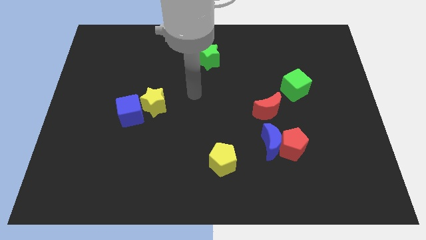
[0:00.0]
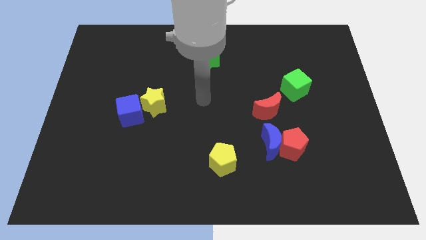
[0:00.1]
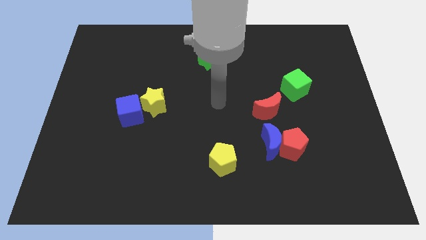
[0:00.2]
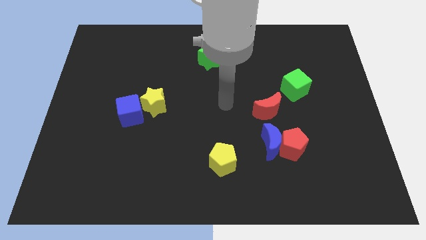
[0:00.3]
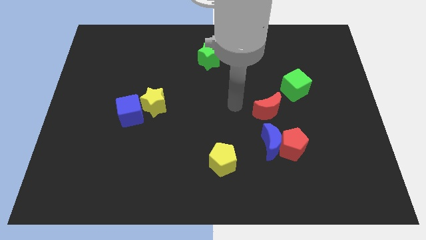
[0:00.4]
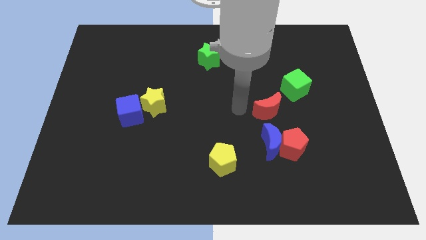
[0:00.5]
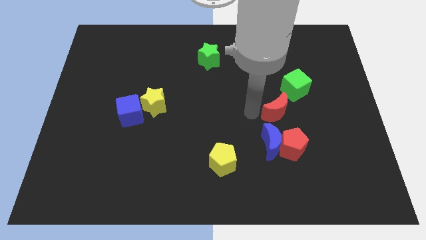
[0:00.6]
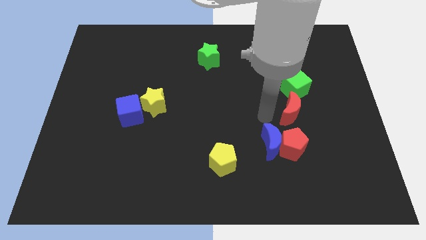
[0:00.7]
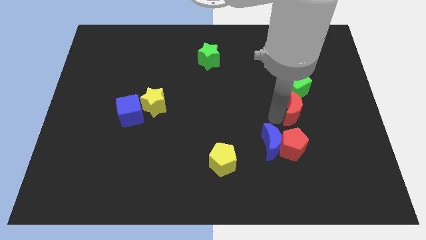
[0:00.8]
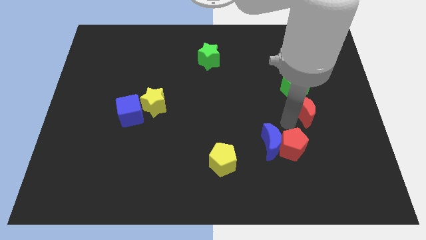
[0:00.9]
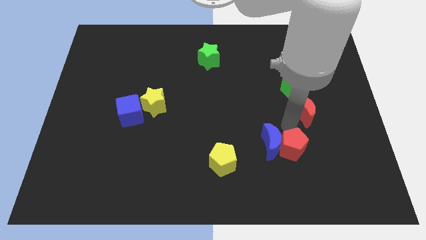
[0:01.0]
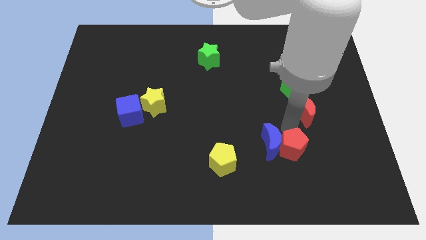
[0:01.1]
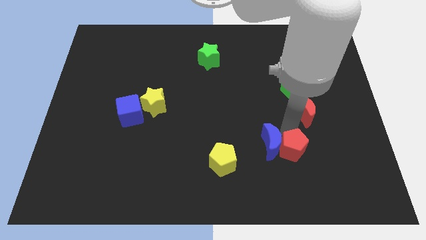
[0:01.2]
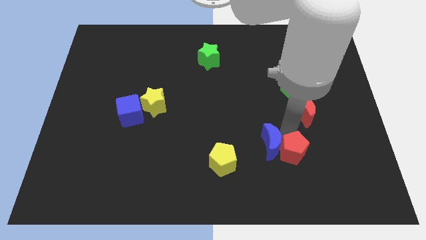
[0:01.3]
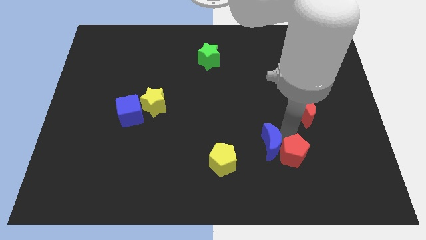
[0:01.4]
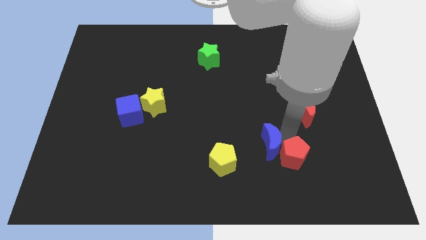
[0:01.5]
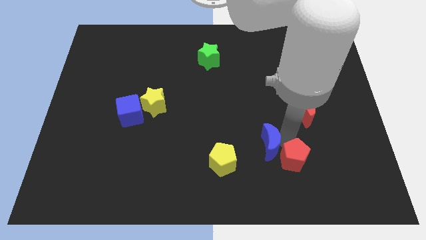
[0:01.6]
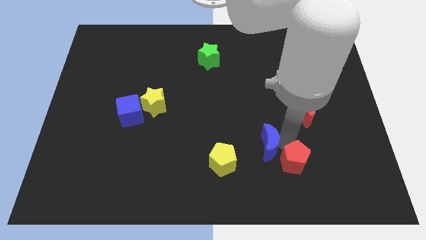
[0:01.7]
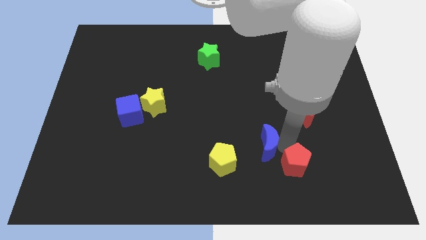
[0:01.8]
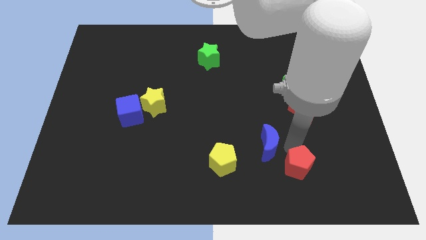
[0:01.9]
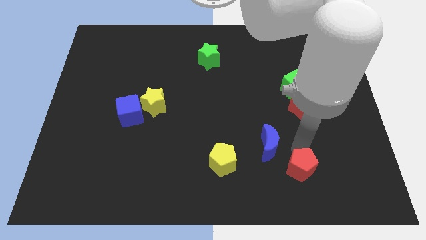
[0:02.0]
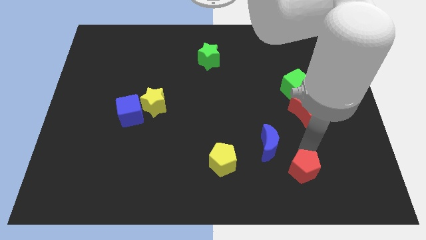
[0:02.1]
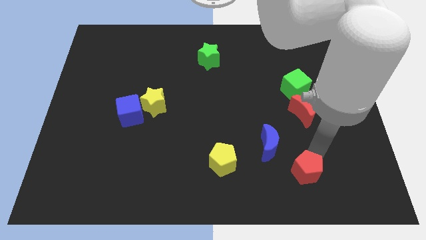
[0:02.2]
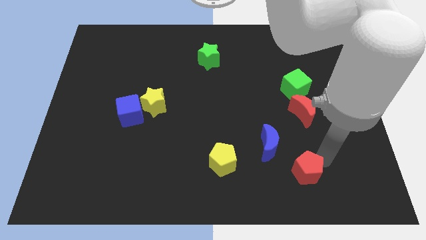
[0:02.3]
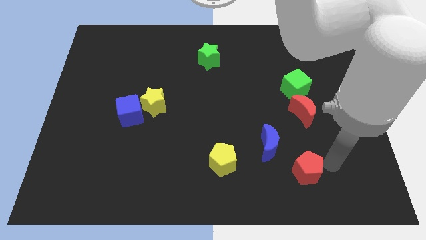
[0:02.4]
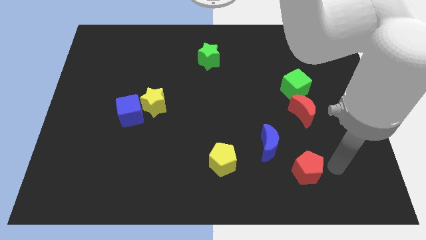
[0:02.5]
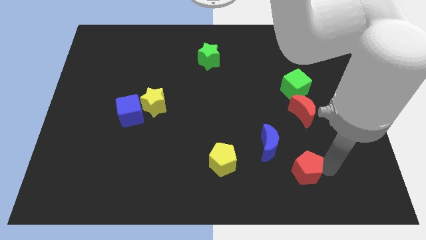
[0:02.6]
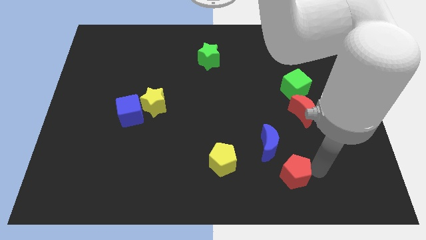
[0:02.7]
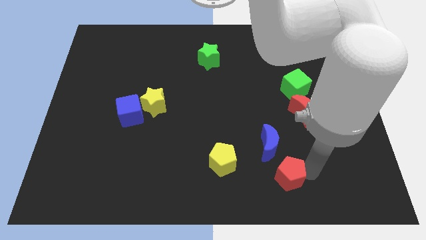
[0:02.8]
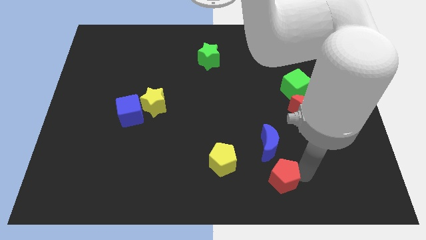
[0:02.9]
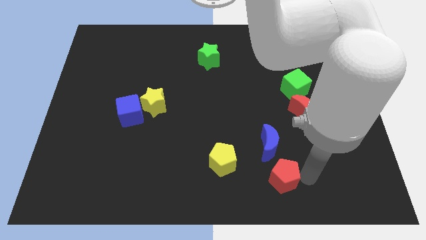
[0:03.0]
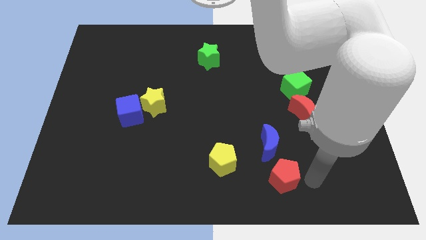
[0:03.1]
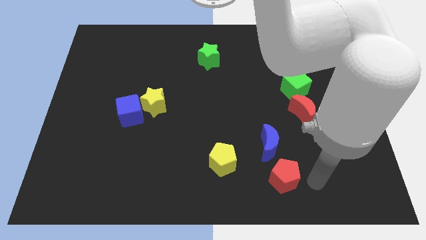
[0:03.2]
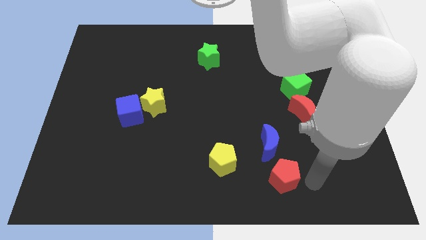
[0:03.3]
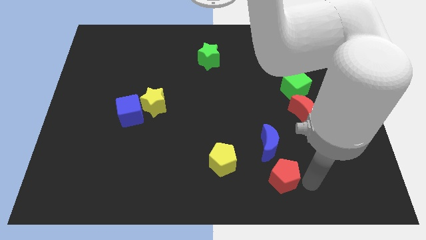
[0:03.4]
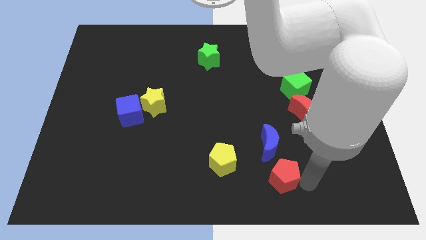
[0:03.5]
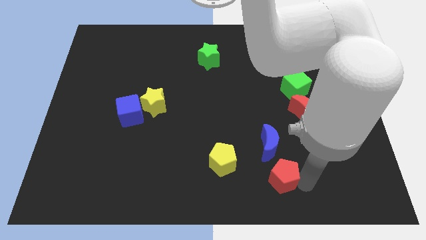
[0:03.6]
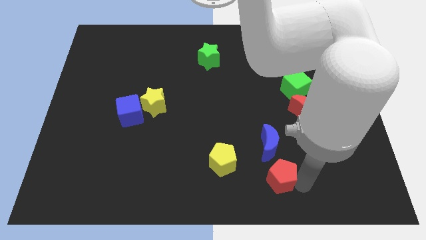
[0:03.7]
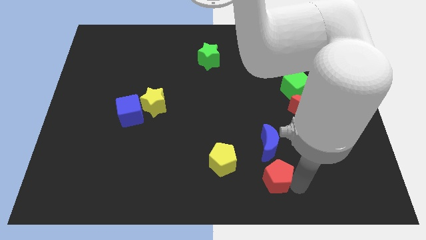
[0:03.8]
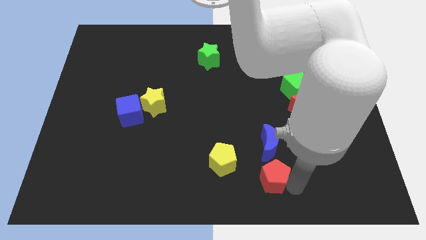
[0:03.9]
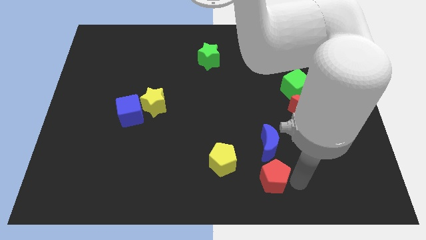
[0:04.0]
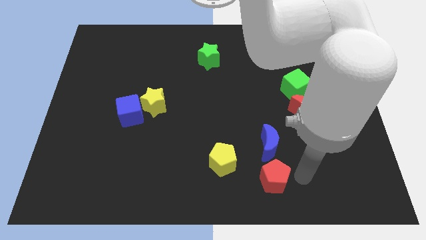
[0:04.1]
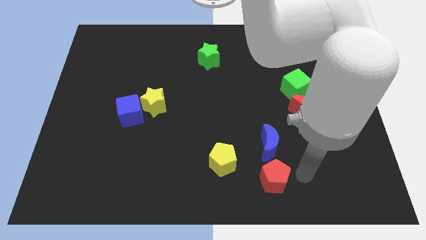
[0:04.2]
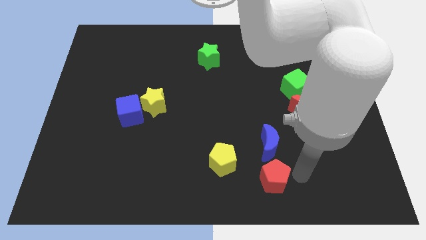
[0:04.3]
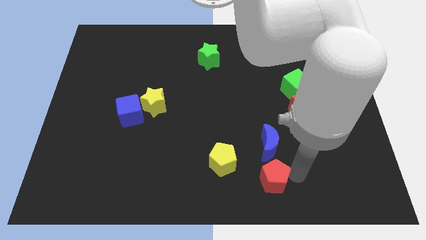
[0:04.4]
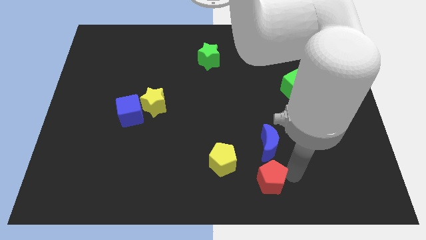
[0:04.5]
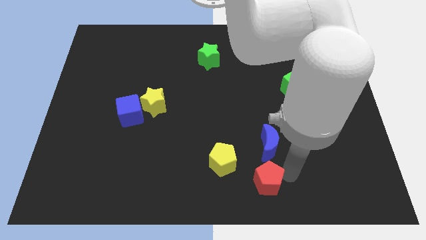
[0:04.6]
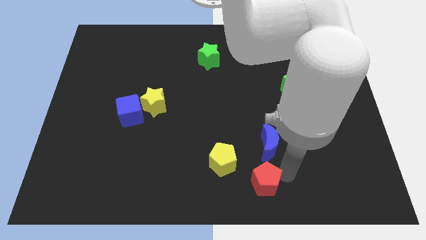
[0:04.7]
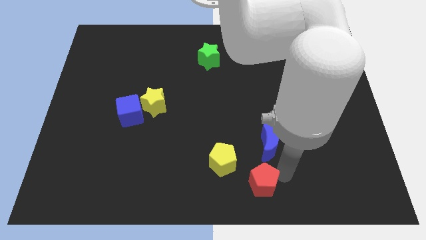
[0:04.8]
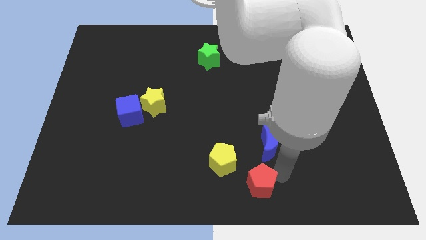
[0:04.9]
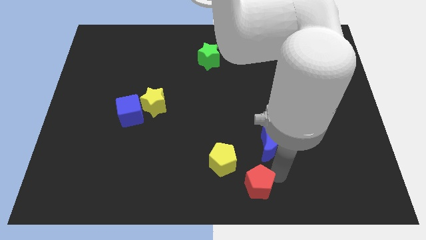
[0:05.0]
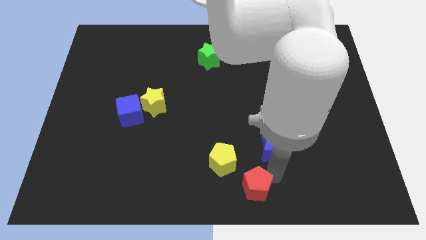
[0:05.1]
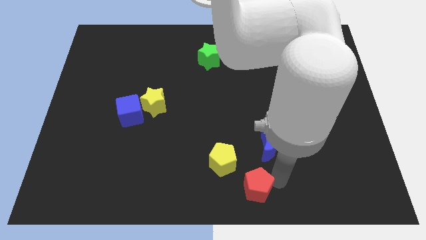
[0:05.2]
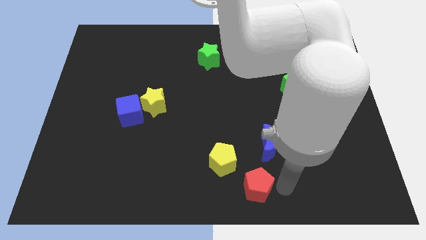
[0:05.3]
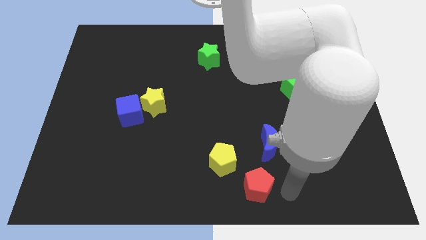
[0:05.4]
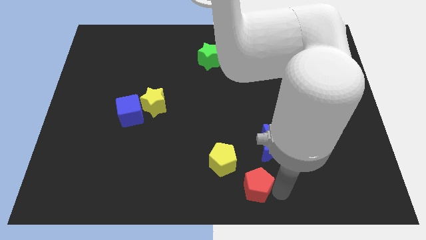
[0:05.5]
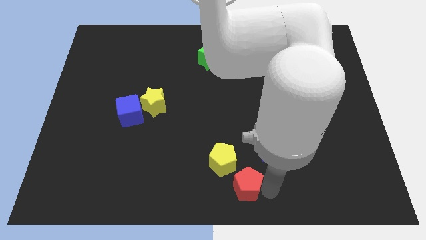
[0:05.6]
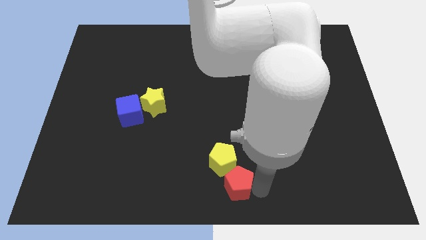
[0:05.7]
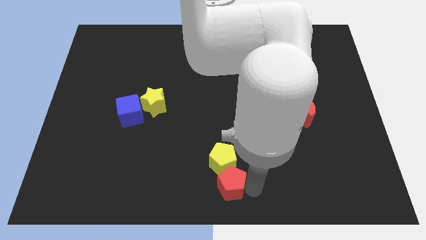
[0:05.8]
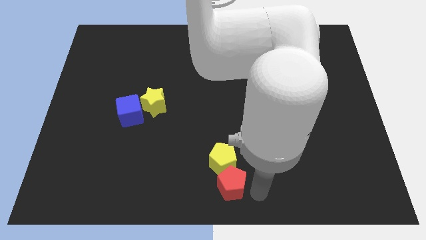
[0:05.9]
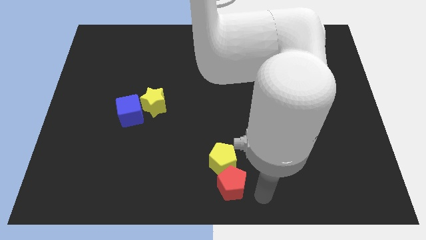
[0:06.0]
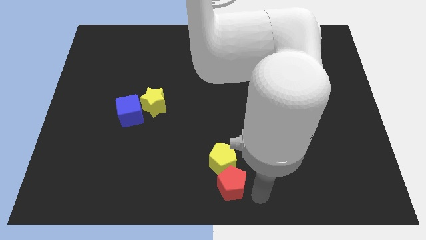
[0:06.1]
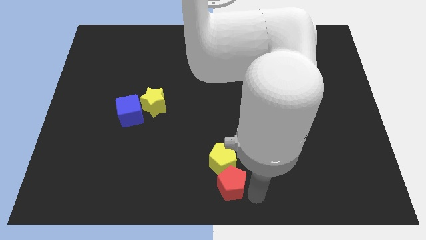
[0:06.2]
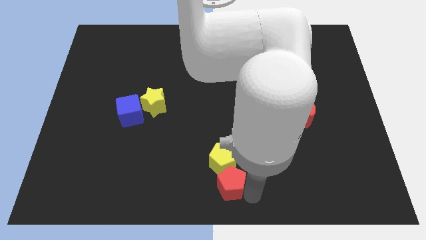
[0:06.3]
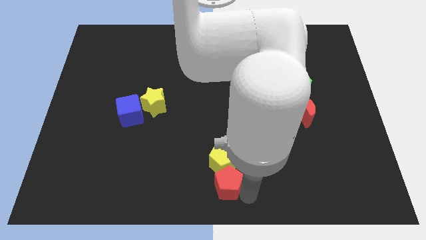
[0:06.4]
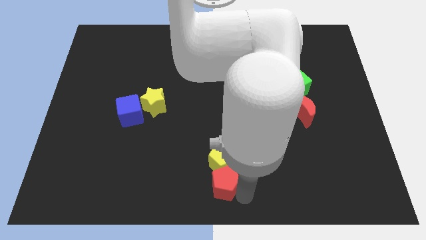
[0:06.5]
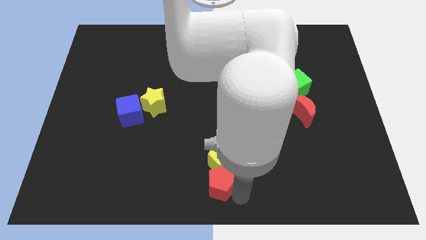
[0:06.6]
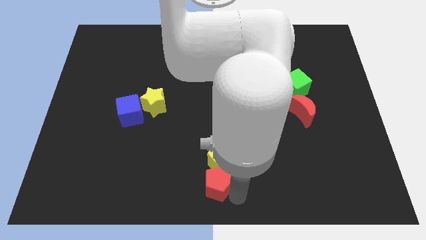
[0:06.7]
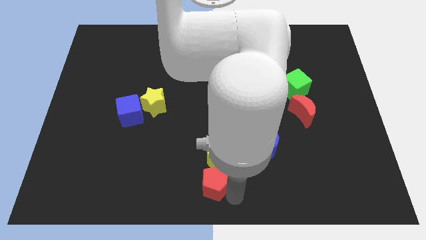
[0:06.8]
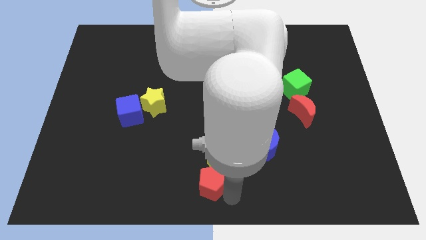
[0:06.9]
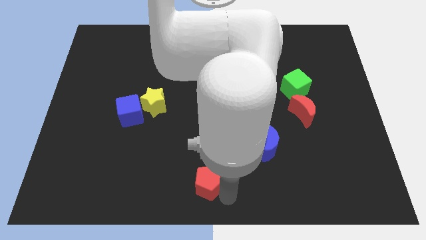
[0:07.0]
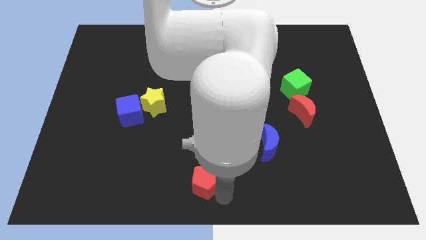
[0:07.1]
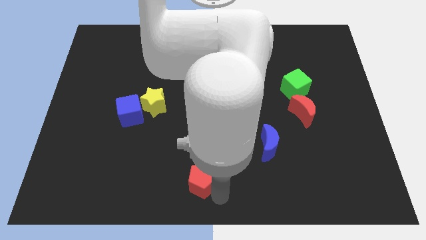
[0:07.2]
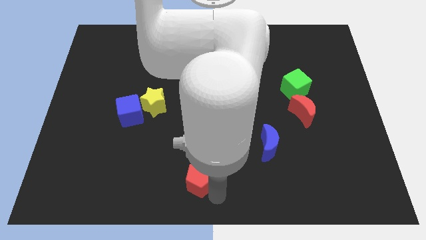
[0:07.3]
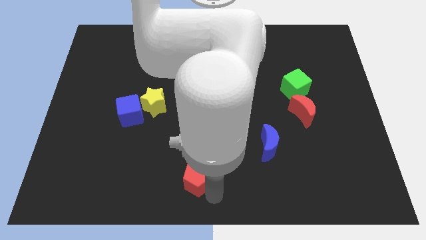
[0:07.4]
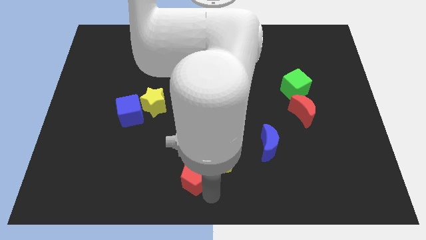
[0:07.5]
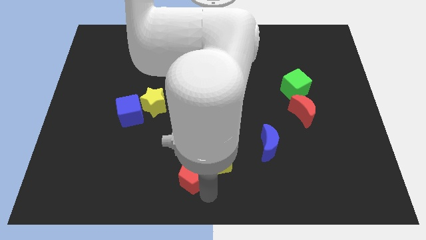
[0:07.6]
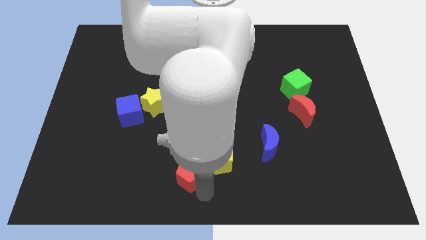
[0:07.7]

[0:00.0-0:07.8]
move the red pentagon to the left
